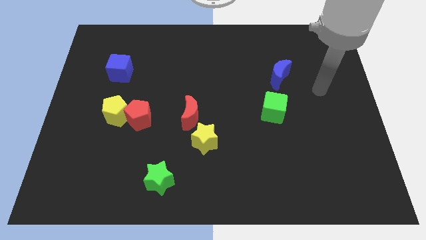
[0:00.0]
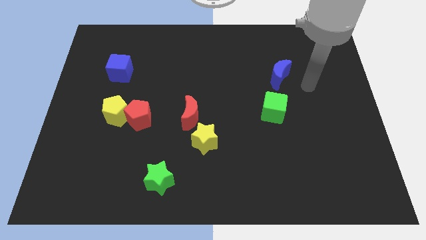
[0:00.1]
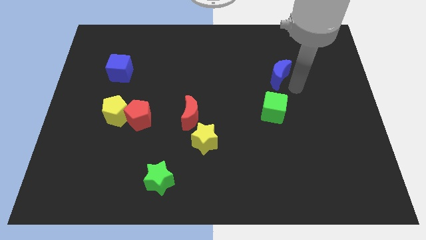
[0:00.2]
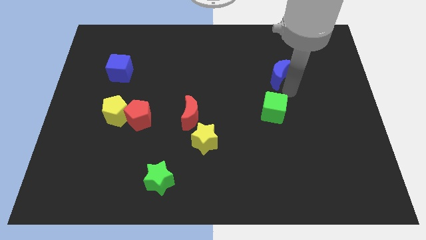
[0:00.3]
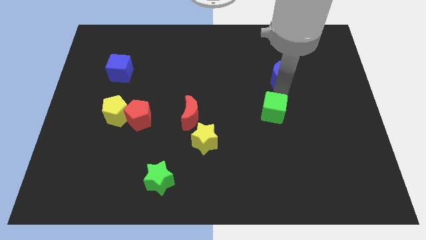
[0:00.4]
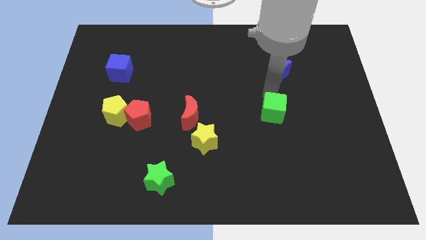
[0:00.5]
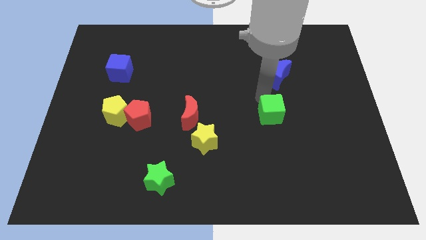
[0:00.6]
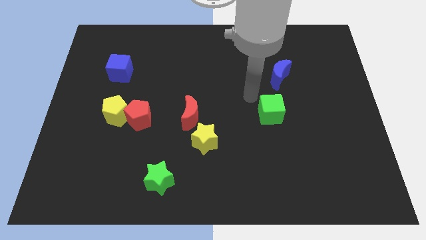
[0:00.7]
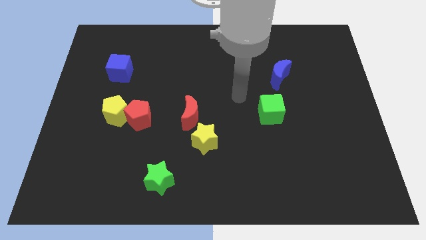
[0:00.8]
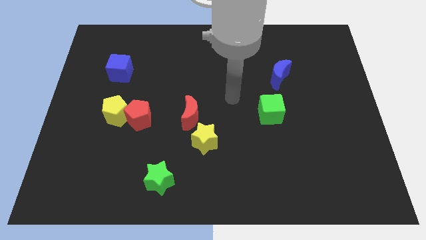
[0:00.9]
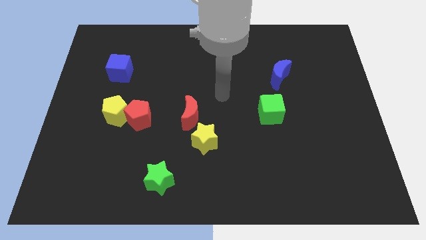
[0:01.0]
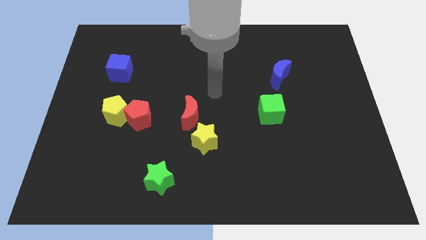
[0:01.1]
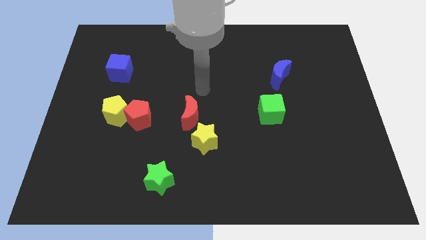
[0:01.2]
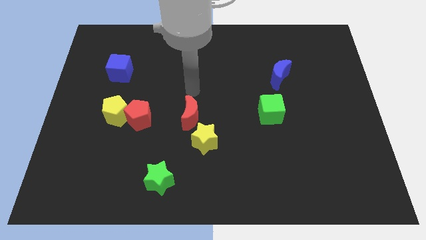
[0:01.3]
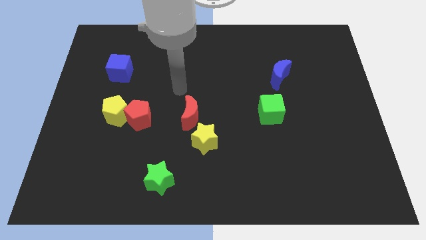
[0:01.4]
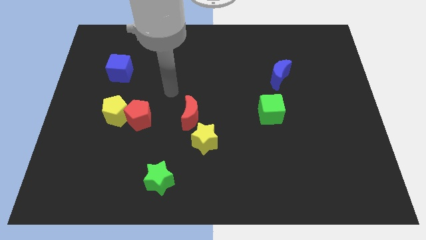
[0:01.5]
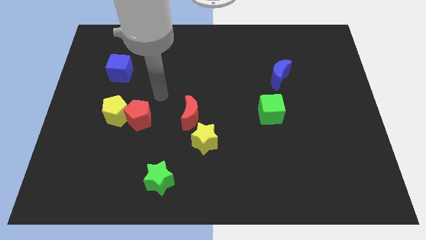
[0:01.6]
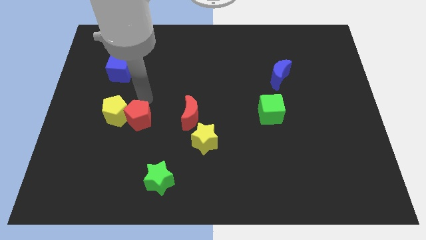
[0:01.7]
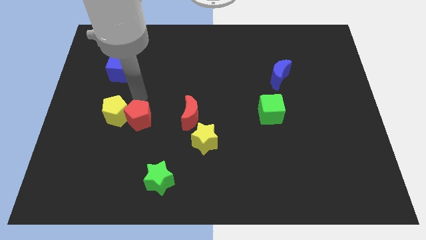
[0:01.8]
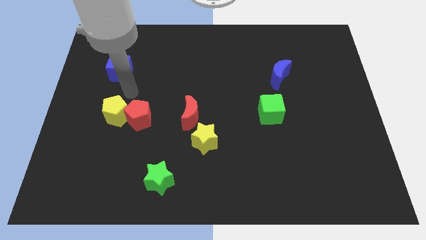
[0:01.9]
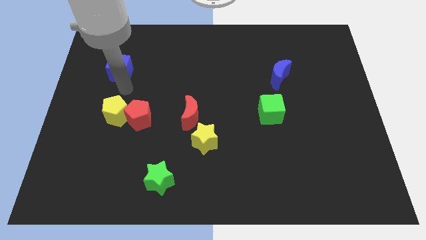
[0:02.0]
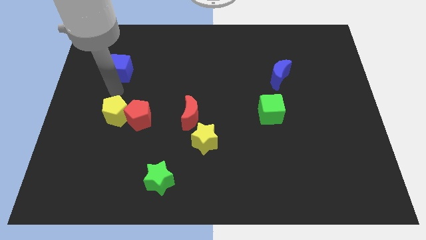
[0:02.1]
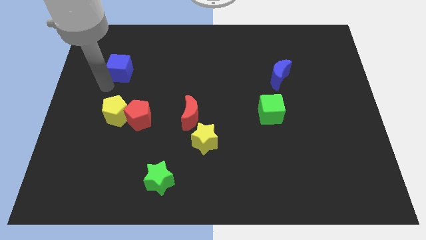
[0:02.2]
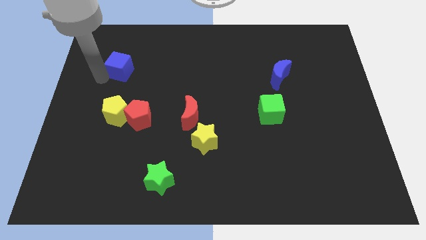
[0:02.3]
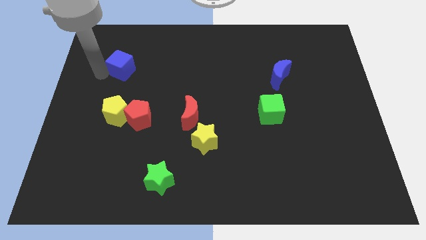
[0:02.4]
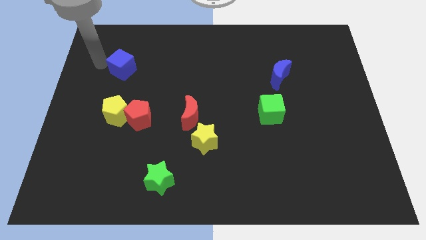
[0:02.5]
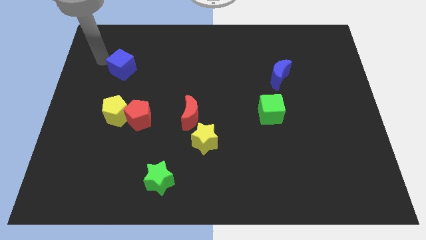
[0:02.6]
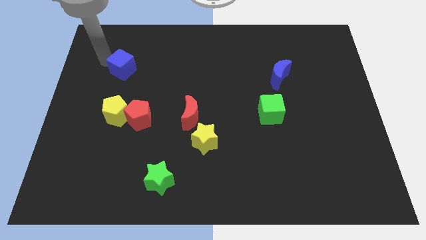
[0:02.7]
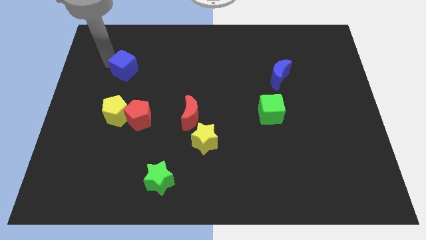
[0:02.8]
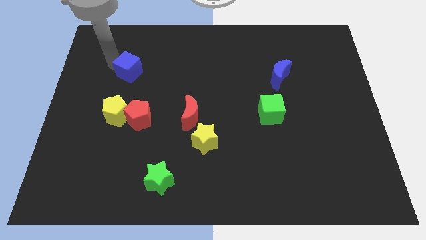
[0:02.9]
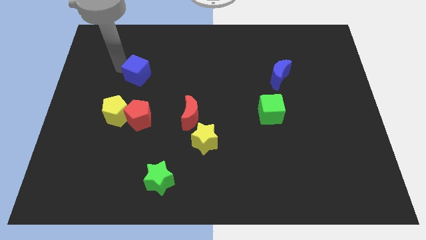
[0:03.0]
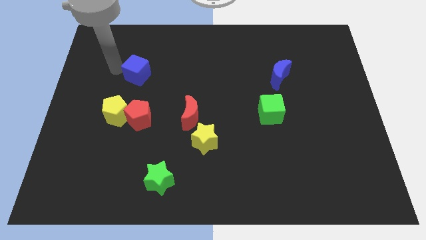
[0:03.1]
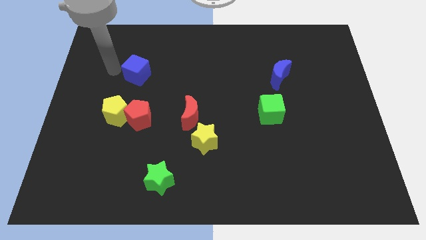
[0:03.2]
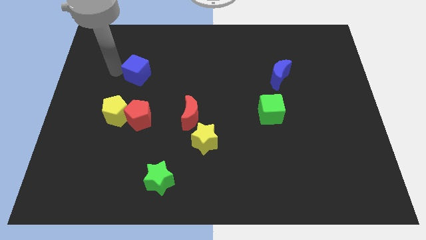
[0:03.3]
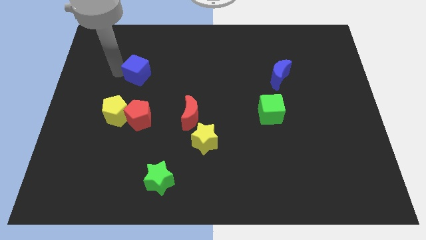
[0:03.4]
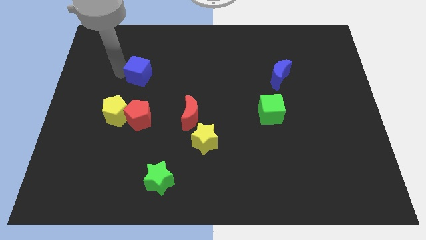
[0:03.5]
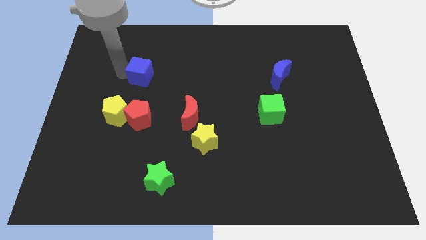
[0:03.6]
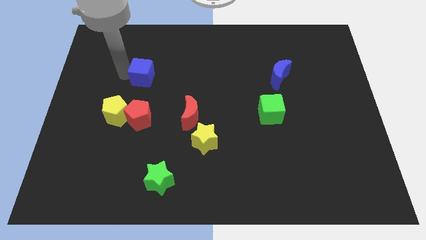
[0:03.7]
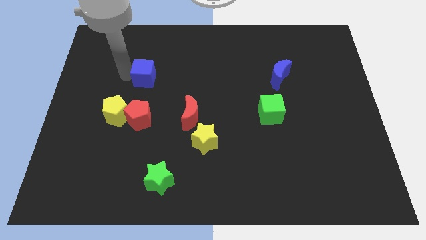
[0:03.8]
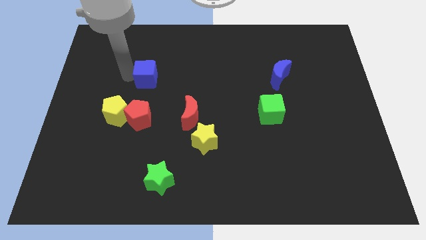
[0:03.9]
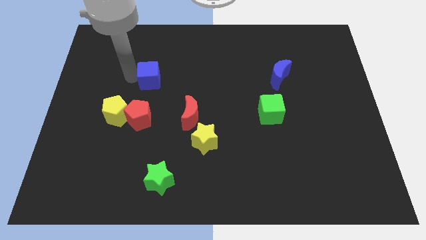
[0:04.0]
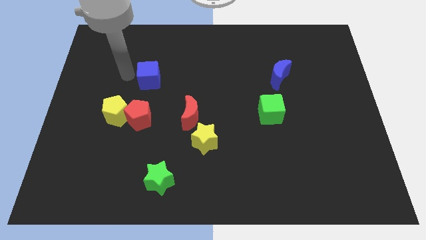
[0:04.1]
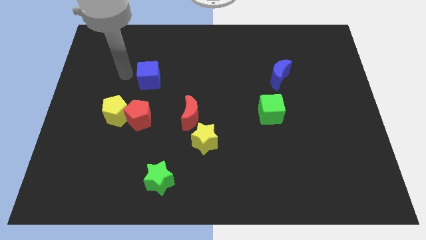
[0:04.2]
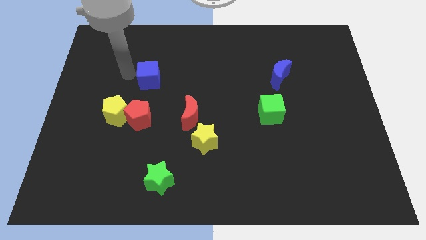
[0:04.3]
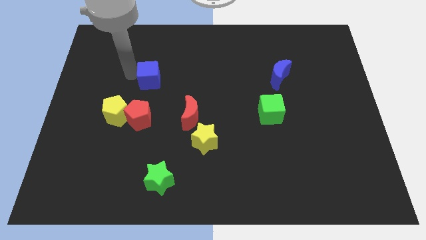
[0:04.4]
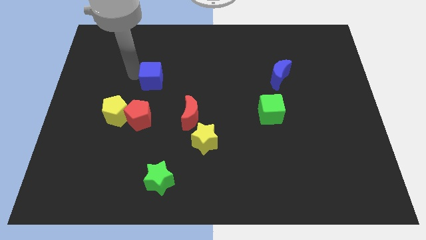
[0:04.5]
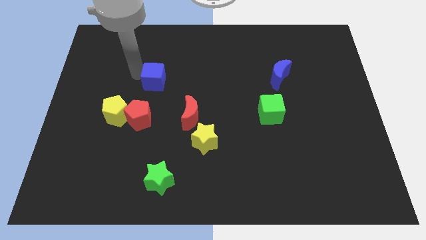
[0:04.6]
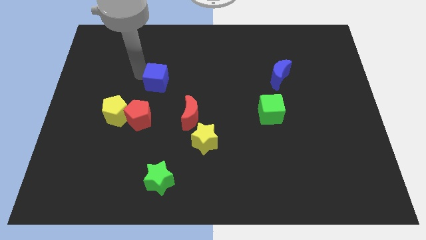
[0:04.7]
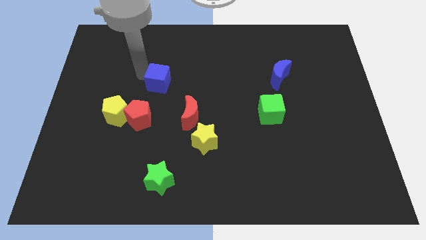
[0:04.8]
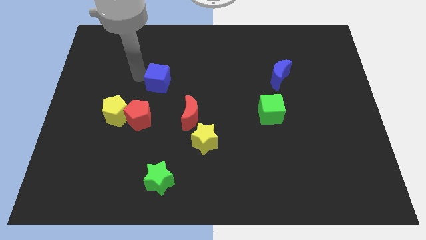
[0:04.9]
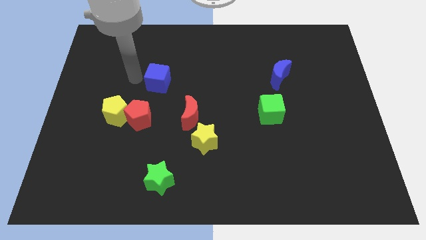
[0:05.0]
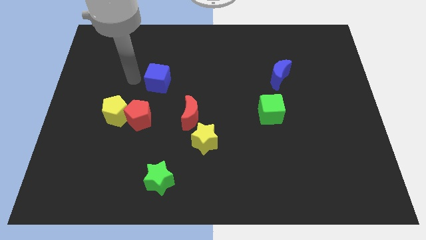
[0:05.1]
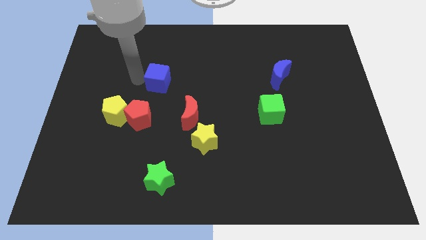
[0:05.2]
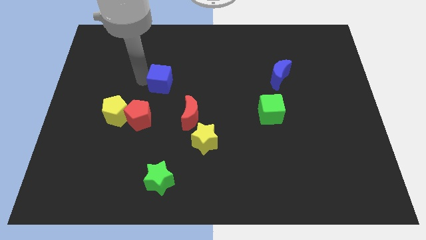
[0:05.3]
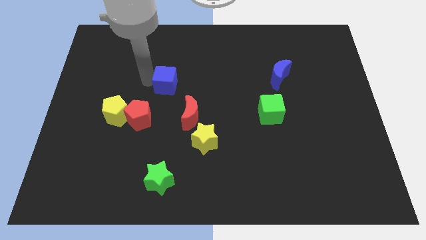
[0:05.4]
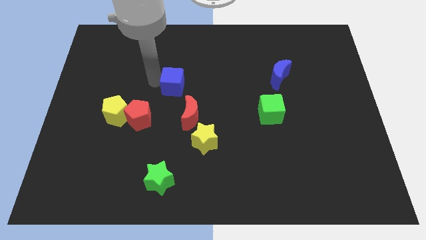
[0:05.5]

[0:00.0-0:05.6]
push the blue cube to the middle

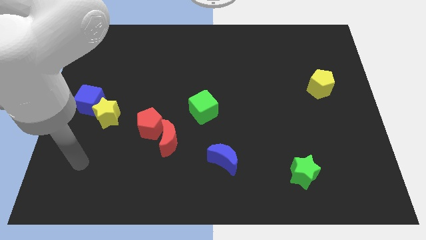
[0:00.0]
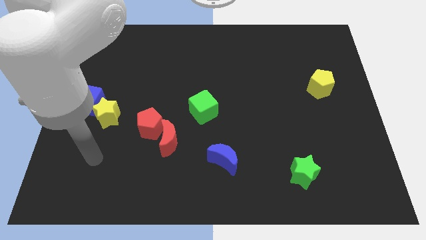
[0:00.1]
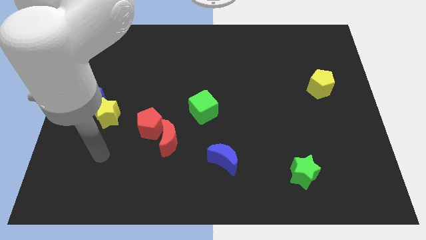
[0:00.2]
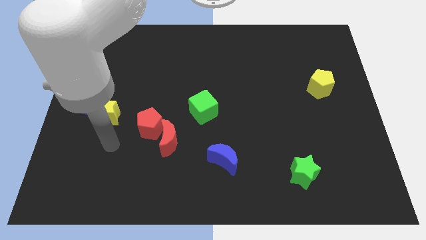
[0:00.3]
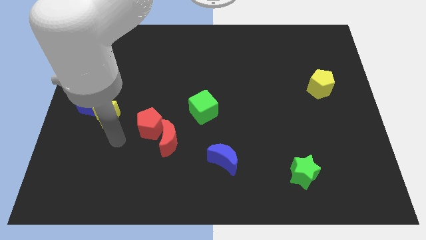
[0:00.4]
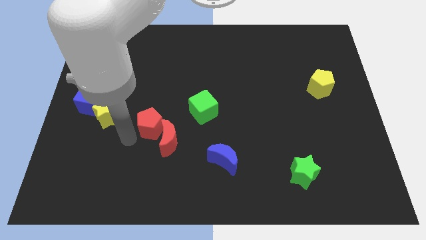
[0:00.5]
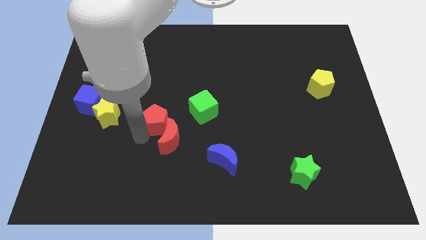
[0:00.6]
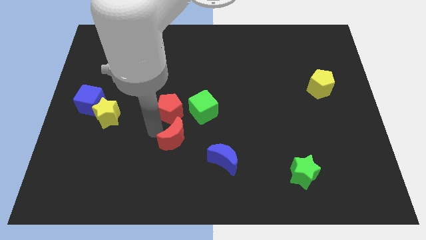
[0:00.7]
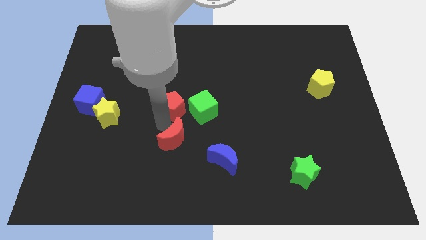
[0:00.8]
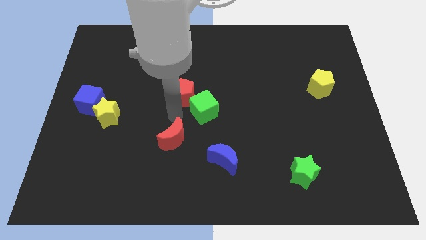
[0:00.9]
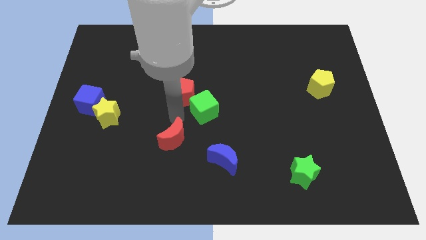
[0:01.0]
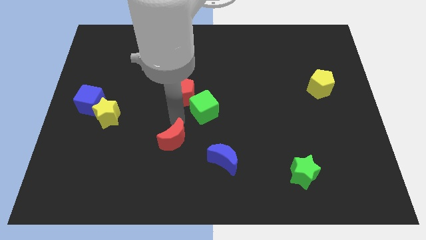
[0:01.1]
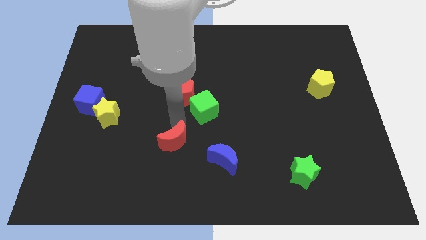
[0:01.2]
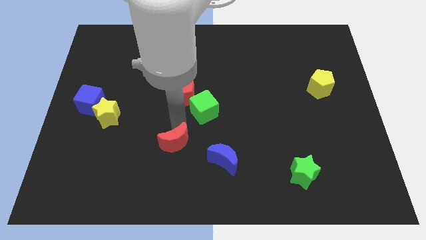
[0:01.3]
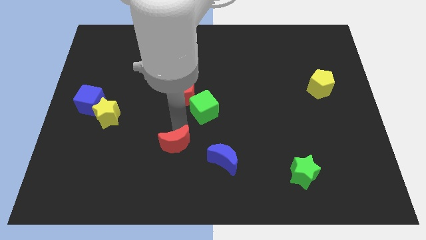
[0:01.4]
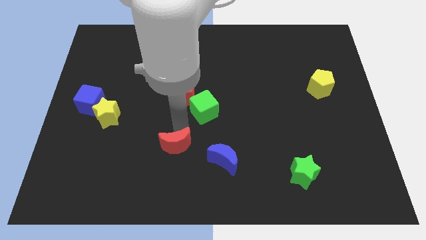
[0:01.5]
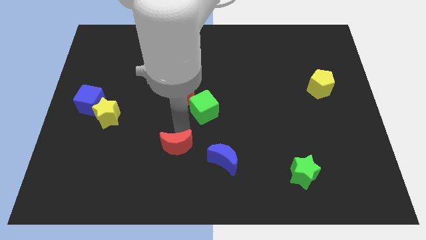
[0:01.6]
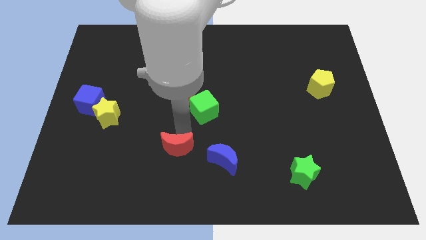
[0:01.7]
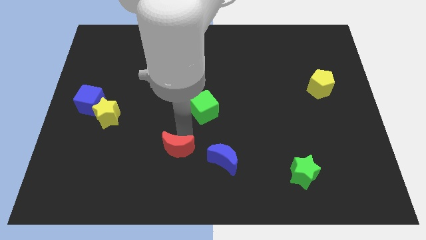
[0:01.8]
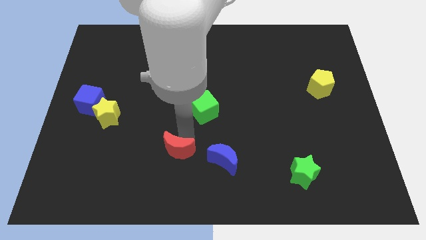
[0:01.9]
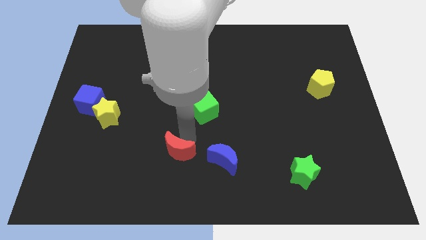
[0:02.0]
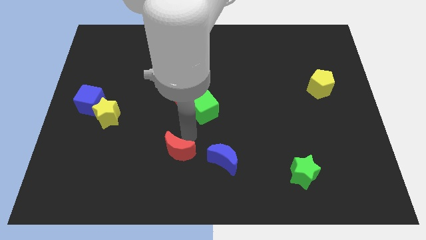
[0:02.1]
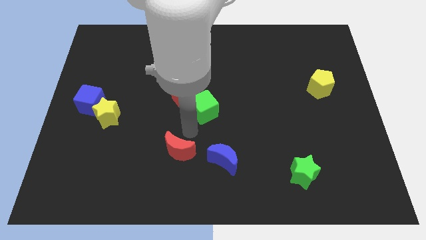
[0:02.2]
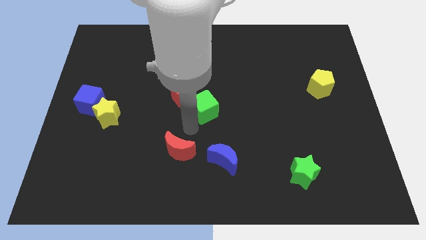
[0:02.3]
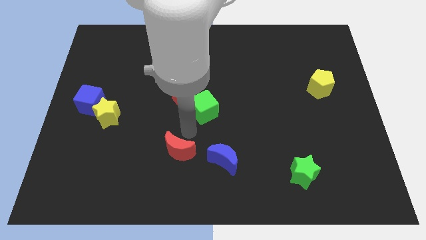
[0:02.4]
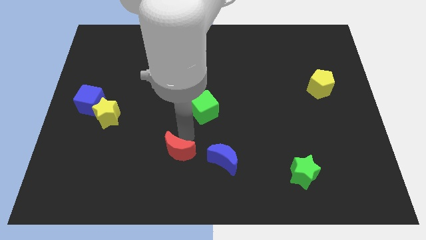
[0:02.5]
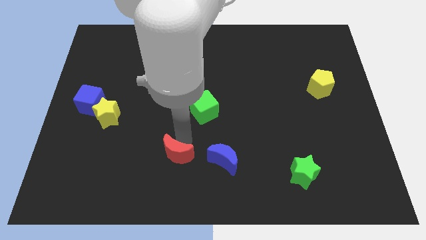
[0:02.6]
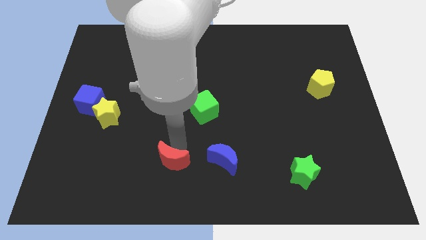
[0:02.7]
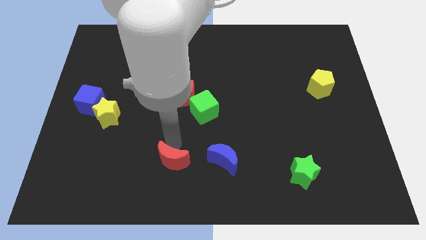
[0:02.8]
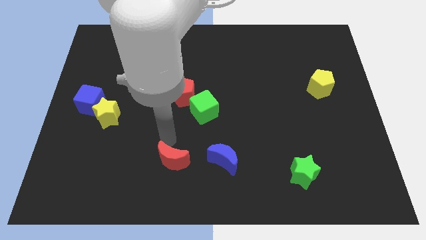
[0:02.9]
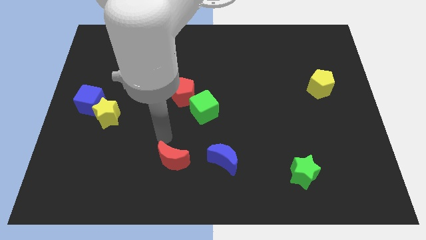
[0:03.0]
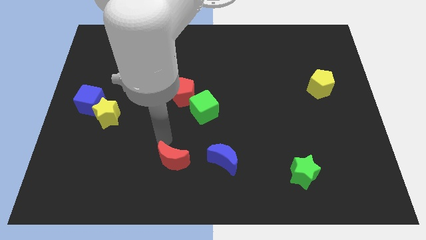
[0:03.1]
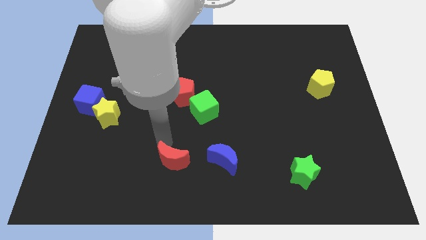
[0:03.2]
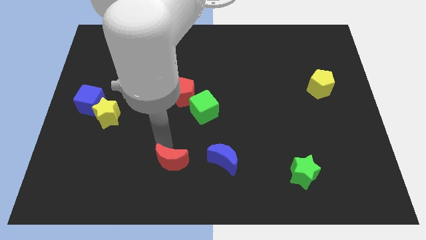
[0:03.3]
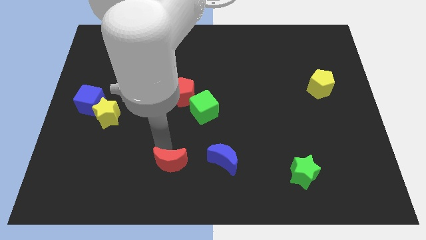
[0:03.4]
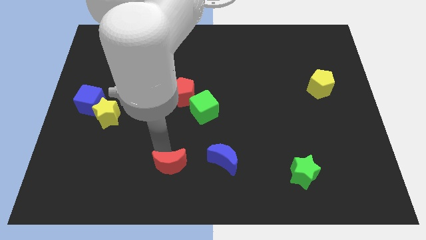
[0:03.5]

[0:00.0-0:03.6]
slide the red moon to the bottom
